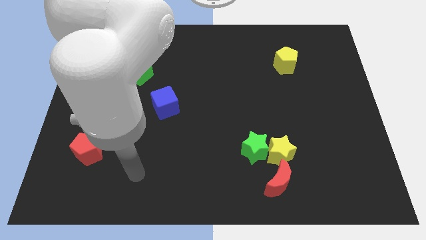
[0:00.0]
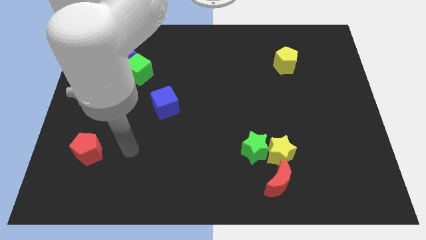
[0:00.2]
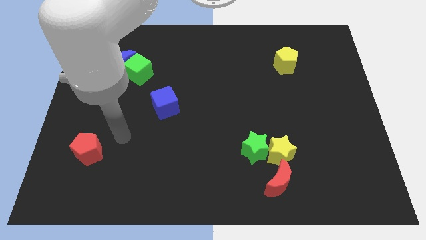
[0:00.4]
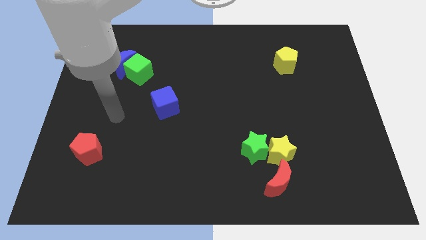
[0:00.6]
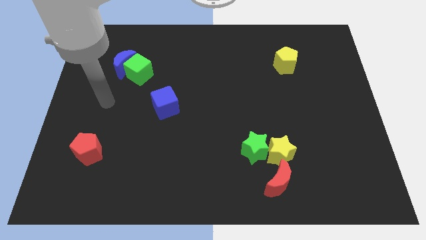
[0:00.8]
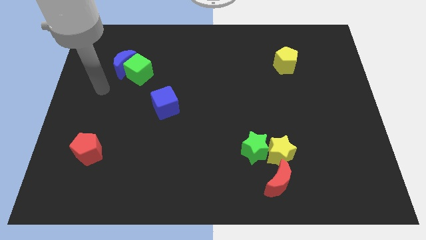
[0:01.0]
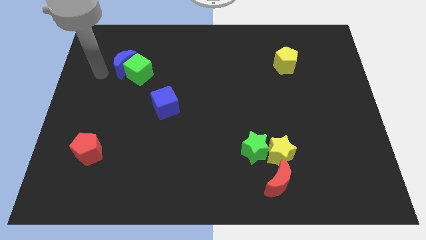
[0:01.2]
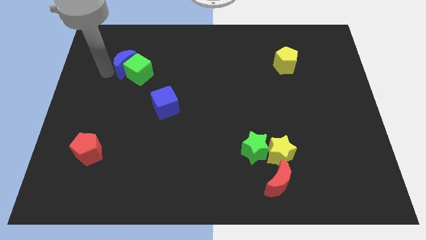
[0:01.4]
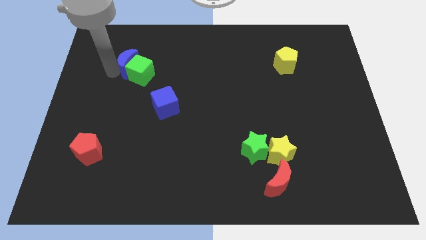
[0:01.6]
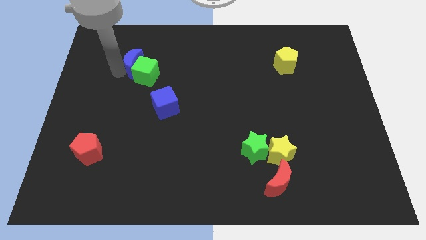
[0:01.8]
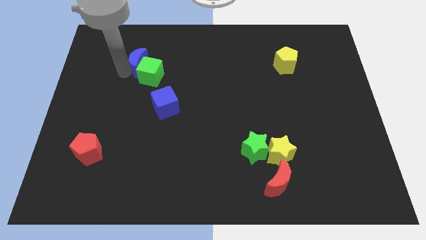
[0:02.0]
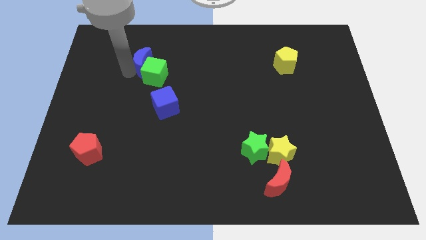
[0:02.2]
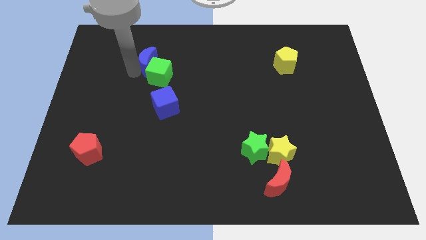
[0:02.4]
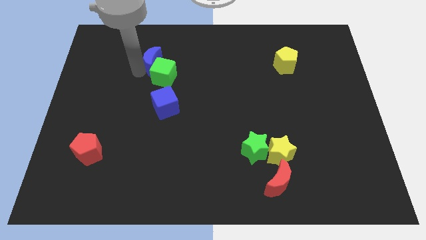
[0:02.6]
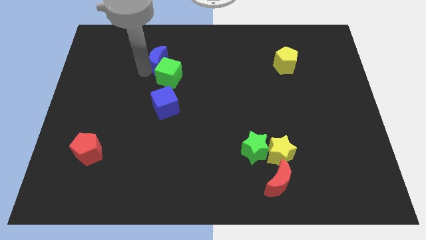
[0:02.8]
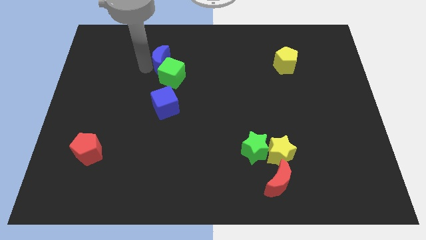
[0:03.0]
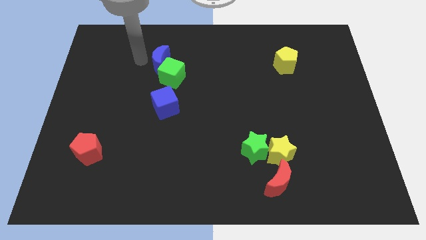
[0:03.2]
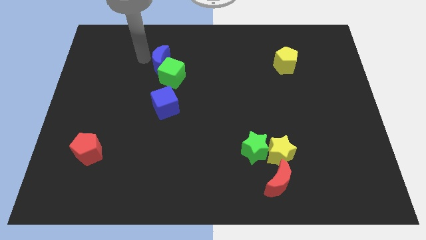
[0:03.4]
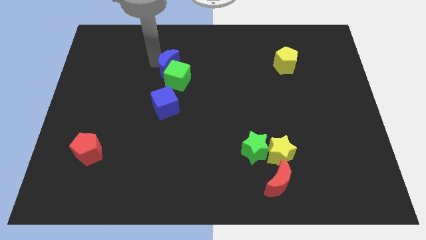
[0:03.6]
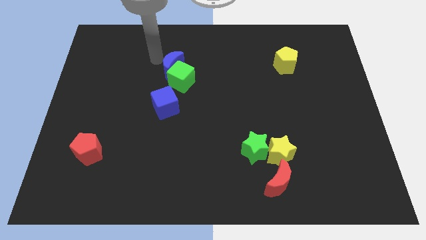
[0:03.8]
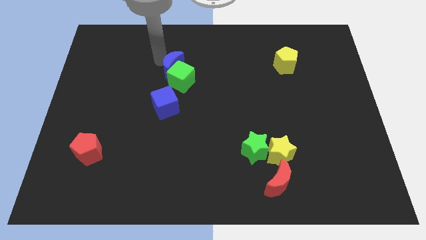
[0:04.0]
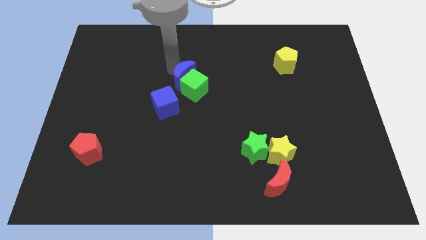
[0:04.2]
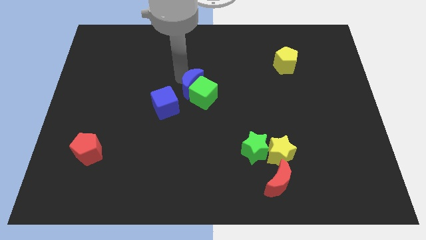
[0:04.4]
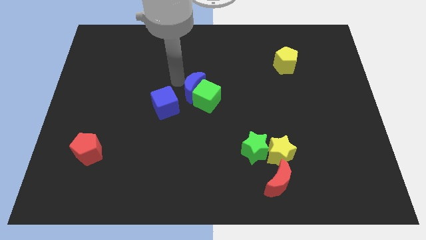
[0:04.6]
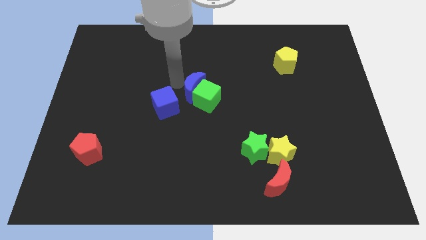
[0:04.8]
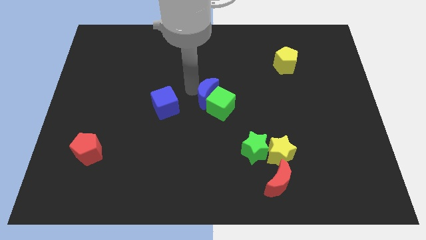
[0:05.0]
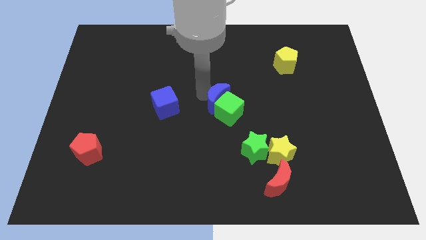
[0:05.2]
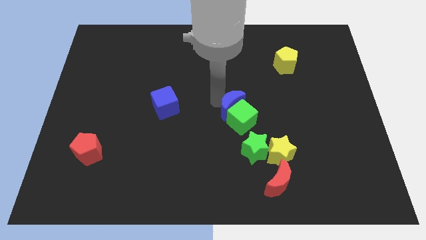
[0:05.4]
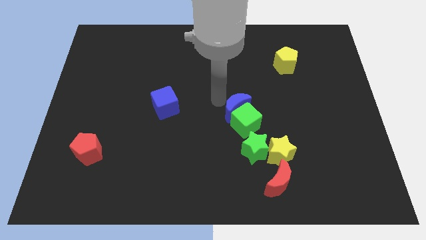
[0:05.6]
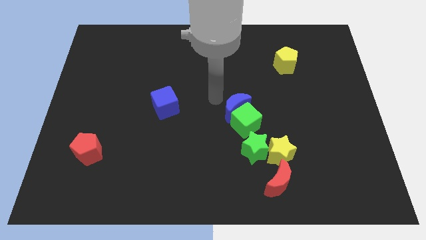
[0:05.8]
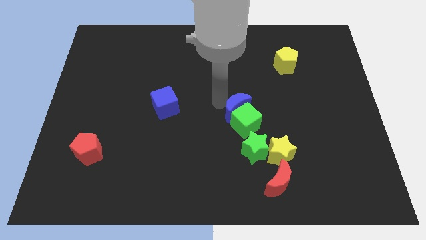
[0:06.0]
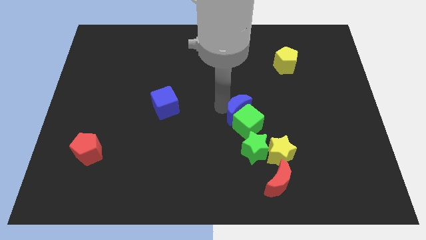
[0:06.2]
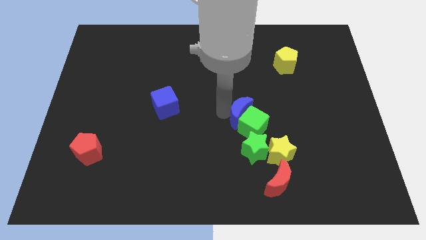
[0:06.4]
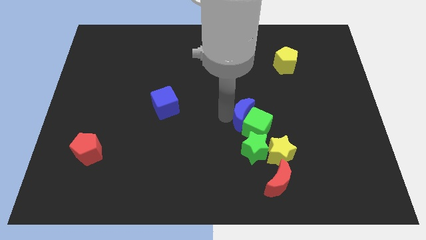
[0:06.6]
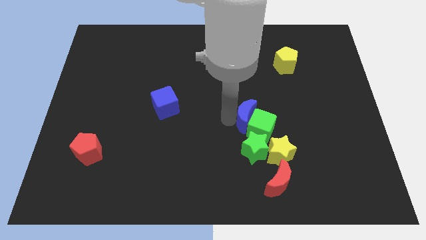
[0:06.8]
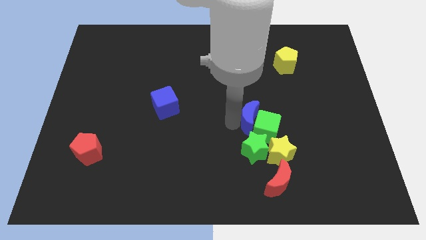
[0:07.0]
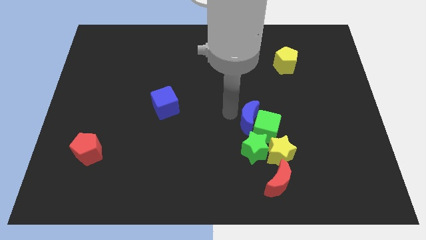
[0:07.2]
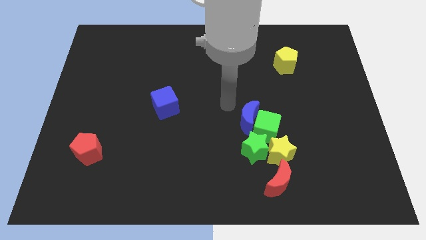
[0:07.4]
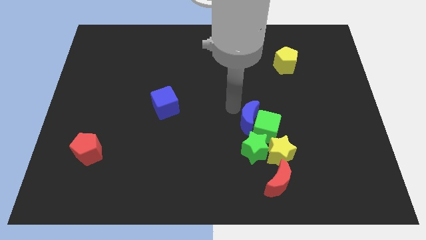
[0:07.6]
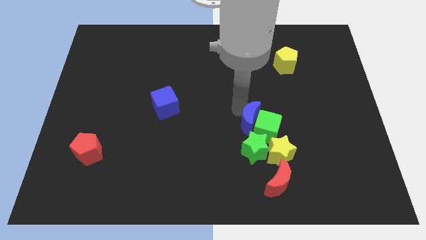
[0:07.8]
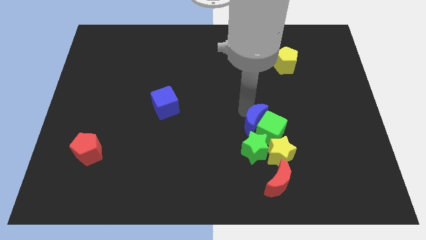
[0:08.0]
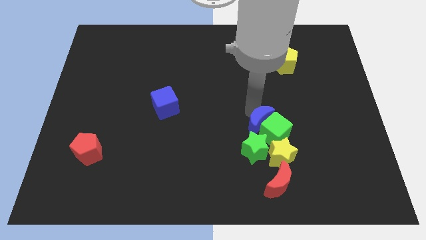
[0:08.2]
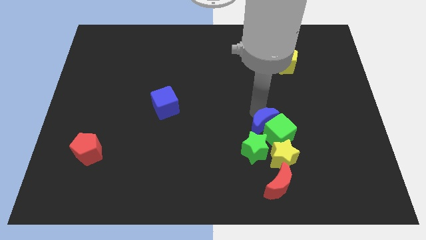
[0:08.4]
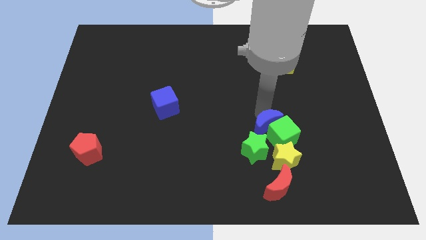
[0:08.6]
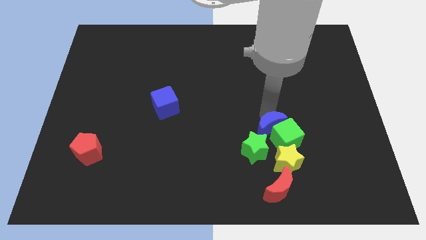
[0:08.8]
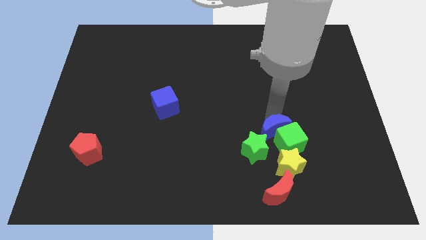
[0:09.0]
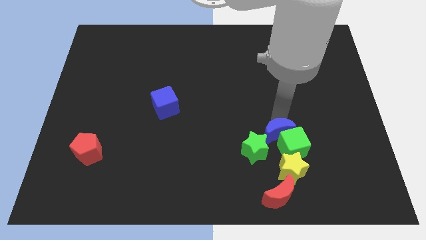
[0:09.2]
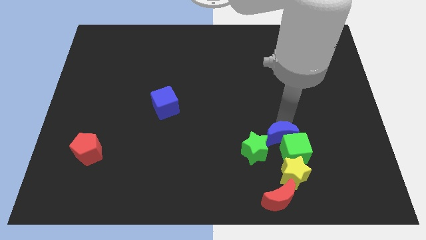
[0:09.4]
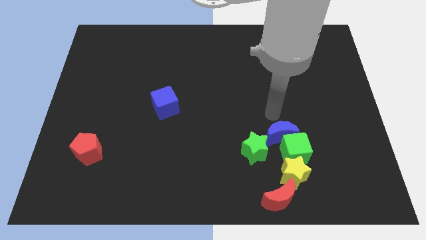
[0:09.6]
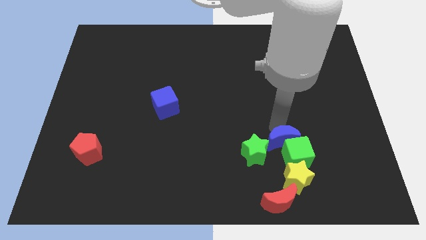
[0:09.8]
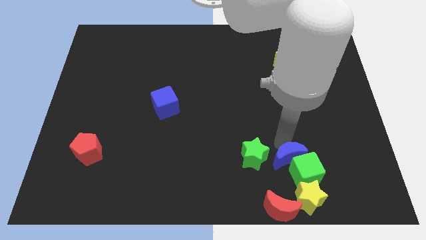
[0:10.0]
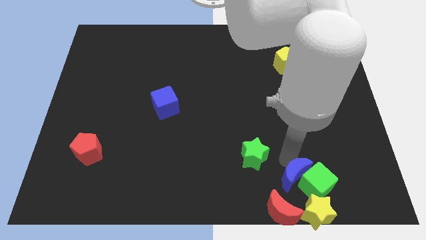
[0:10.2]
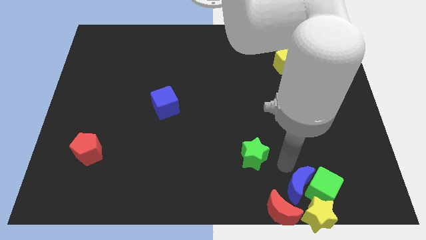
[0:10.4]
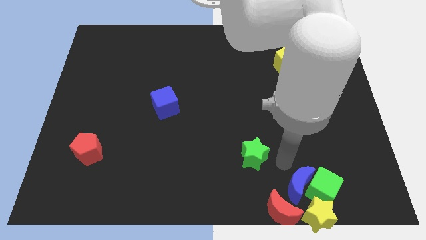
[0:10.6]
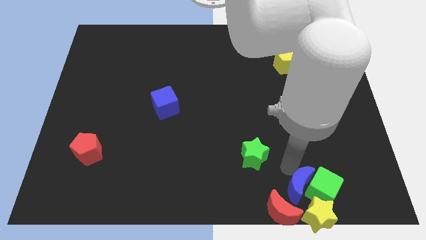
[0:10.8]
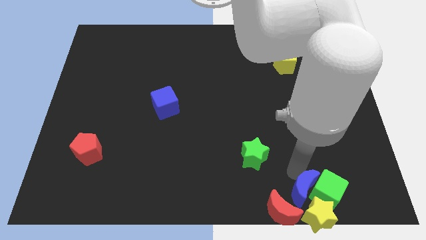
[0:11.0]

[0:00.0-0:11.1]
push the blue moon close to the yellow star

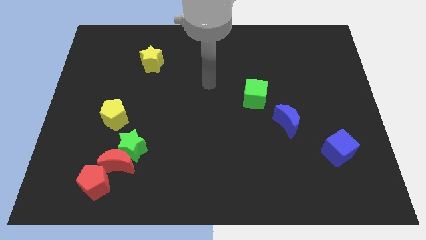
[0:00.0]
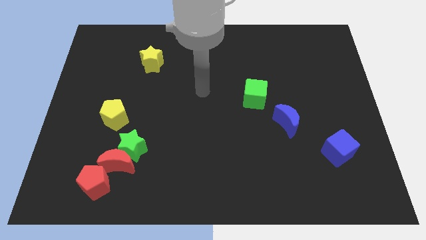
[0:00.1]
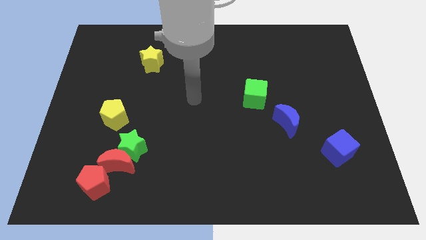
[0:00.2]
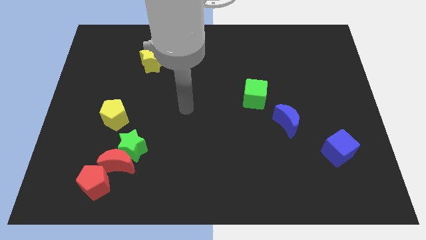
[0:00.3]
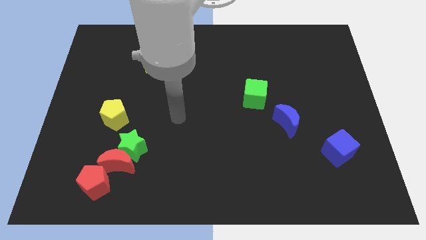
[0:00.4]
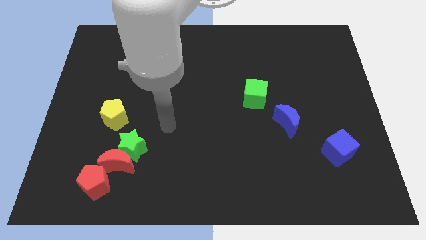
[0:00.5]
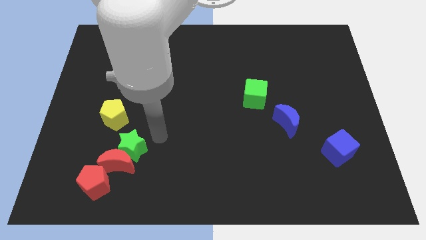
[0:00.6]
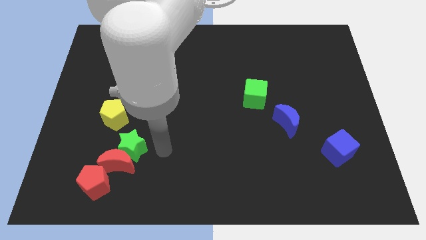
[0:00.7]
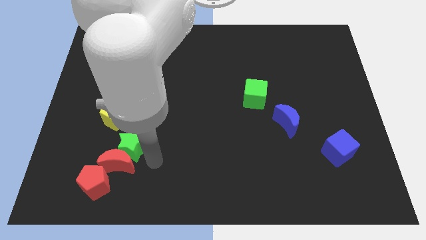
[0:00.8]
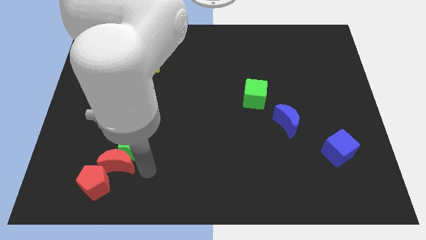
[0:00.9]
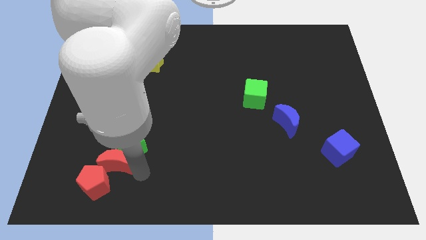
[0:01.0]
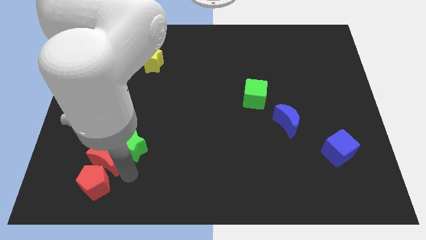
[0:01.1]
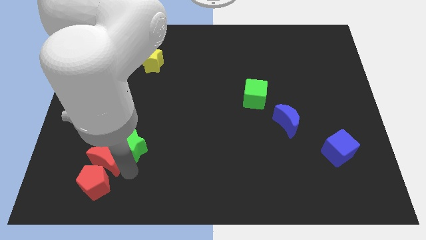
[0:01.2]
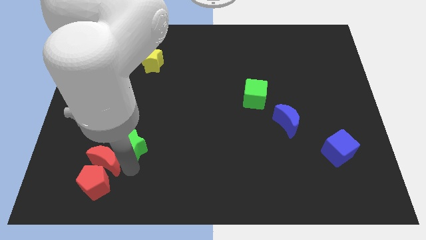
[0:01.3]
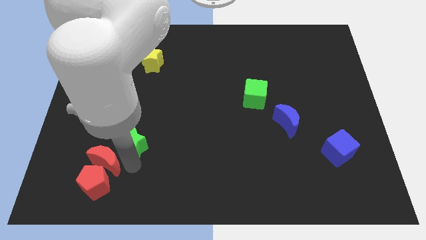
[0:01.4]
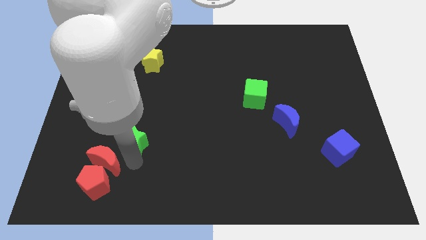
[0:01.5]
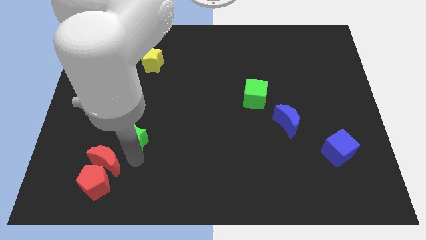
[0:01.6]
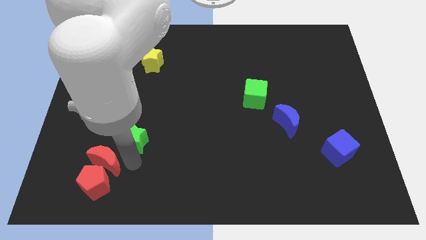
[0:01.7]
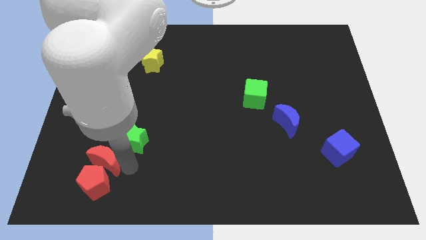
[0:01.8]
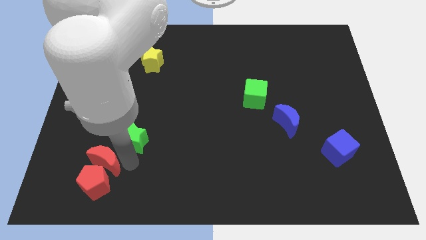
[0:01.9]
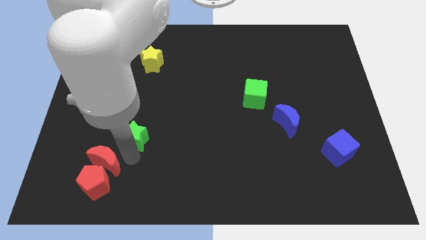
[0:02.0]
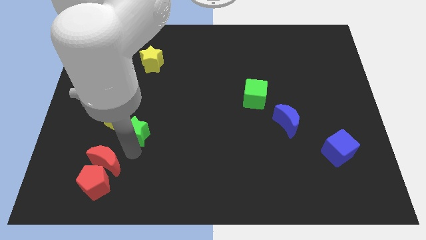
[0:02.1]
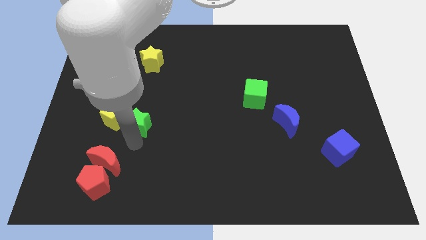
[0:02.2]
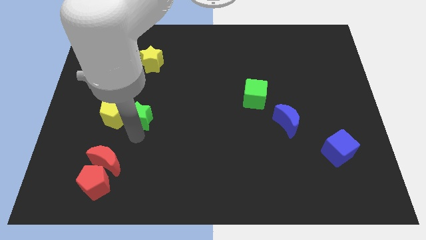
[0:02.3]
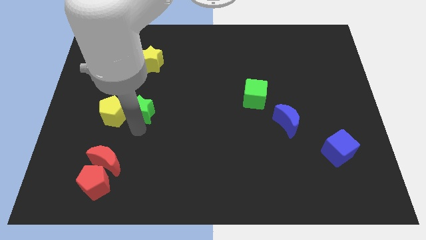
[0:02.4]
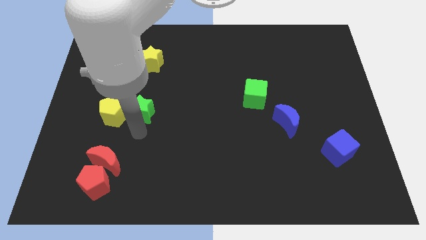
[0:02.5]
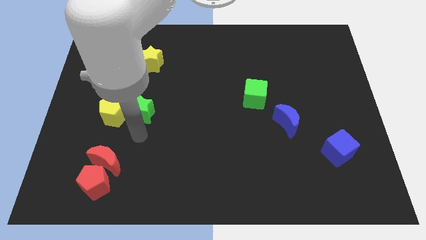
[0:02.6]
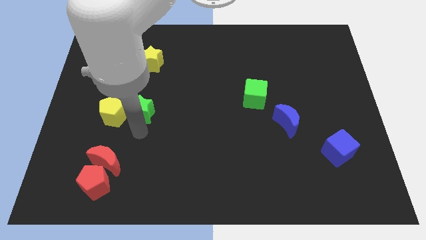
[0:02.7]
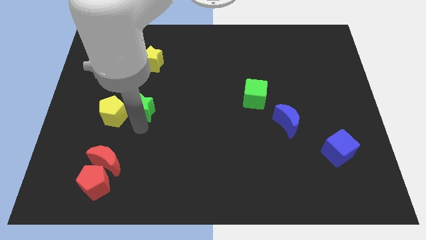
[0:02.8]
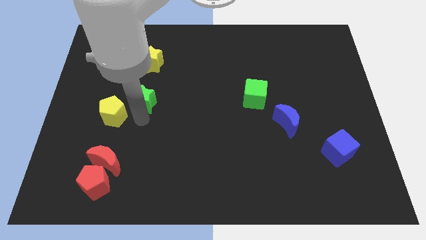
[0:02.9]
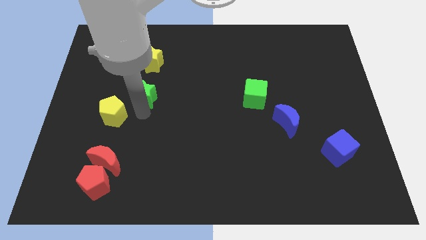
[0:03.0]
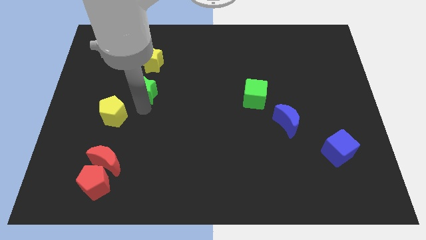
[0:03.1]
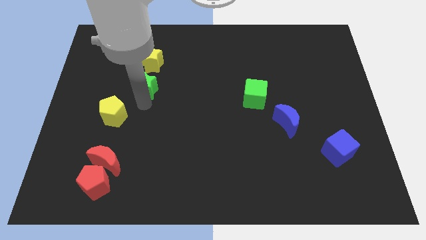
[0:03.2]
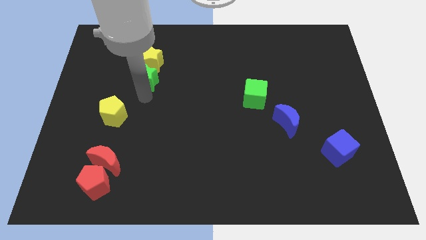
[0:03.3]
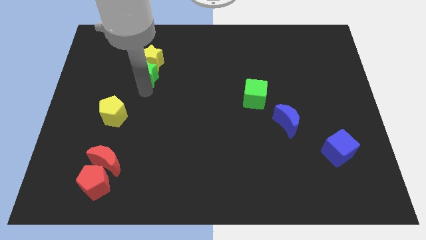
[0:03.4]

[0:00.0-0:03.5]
move the green star to the yellow star
